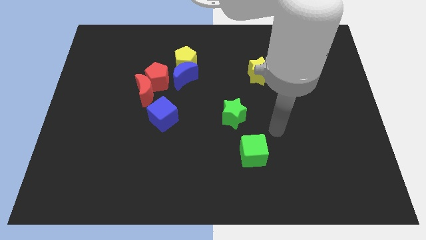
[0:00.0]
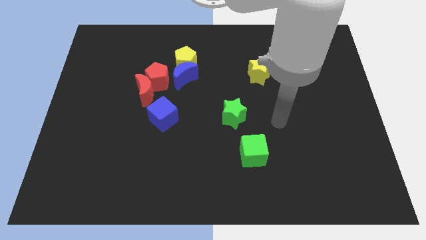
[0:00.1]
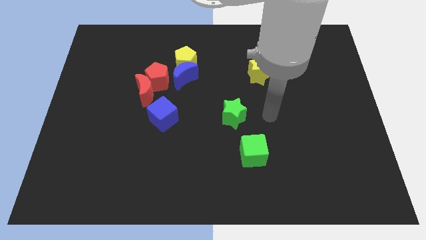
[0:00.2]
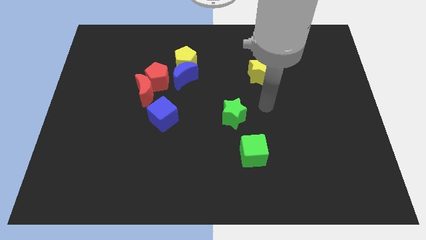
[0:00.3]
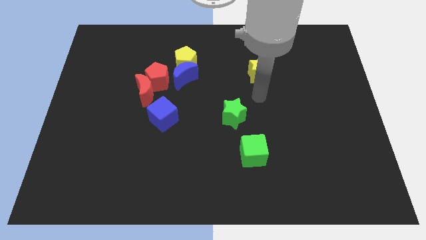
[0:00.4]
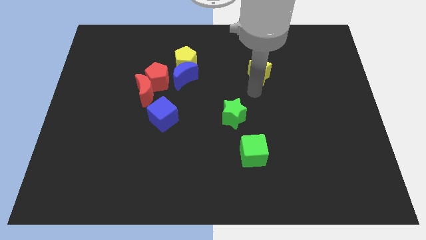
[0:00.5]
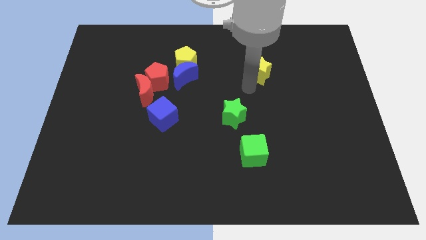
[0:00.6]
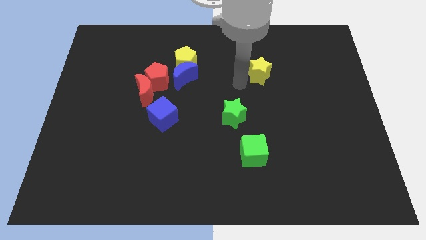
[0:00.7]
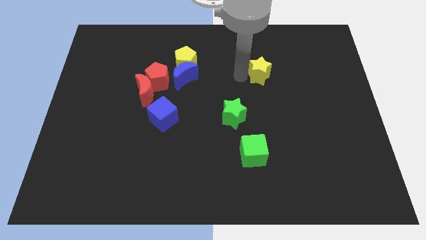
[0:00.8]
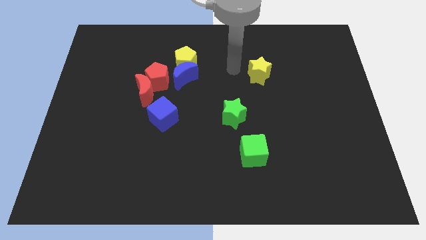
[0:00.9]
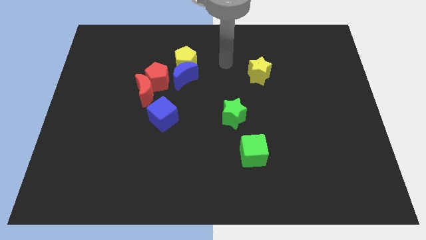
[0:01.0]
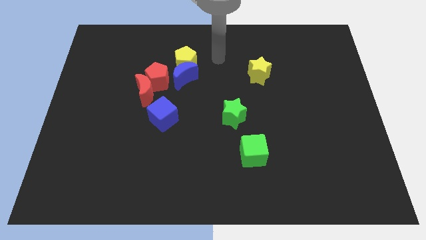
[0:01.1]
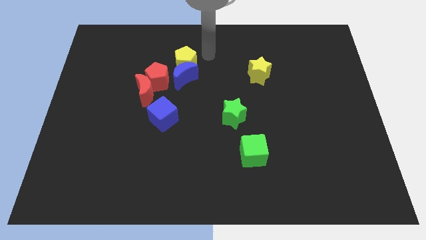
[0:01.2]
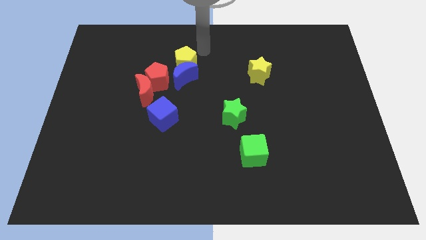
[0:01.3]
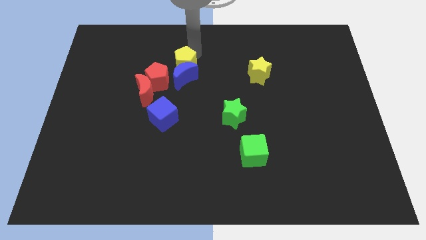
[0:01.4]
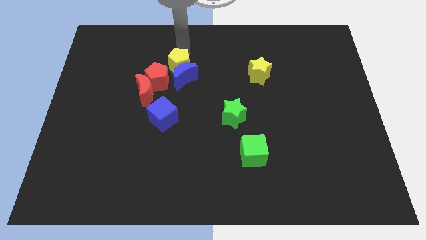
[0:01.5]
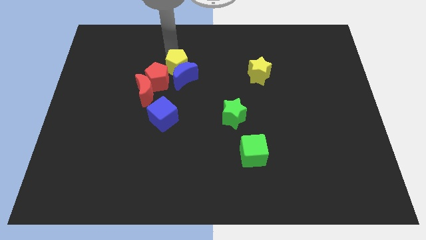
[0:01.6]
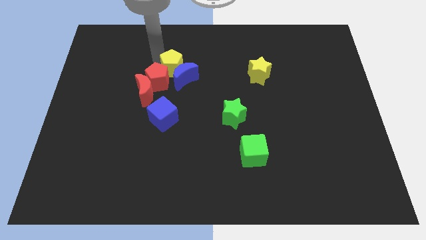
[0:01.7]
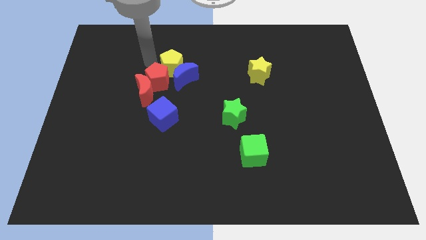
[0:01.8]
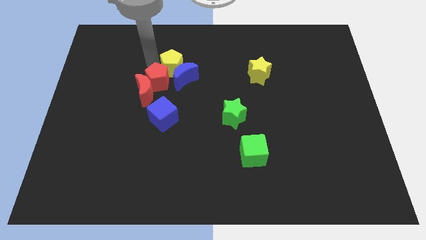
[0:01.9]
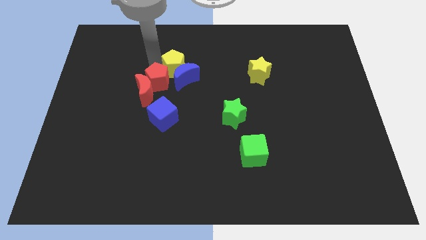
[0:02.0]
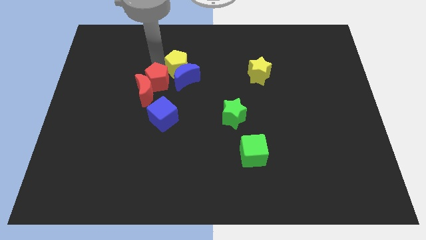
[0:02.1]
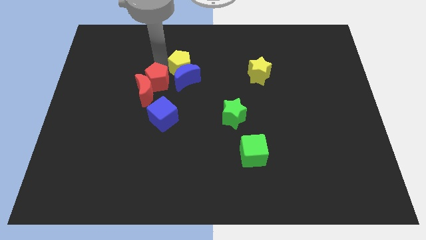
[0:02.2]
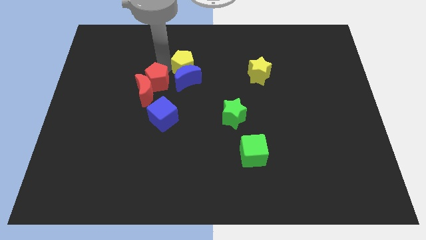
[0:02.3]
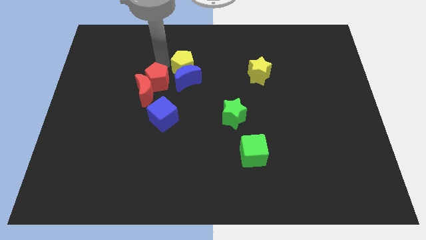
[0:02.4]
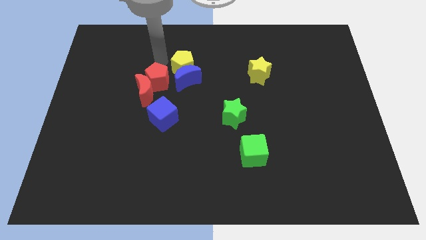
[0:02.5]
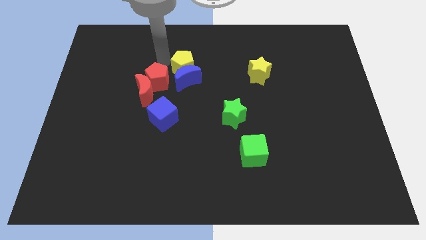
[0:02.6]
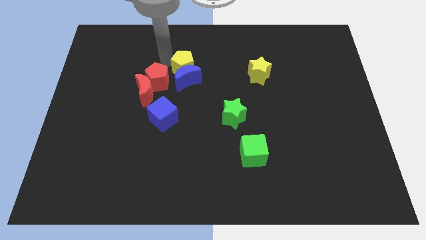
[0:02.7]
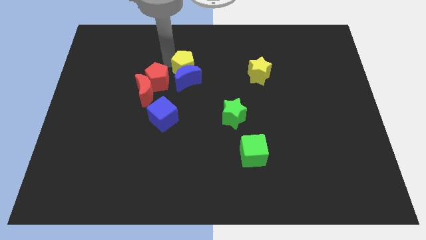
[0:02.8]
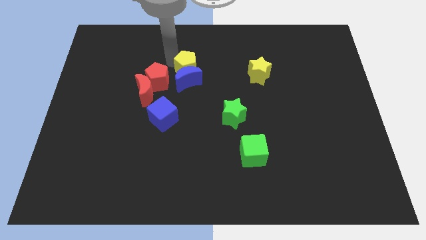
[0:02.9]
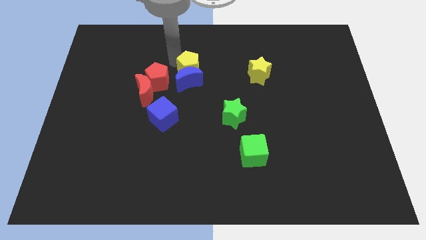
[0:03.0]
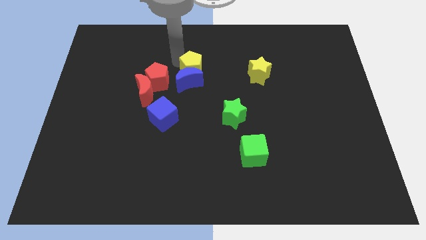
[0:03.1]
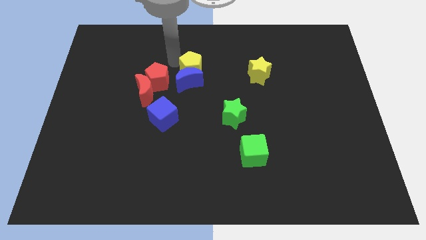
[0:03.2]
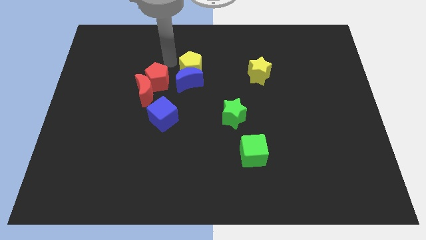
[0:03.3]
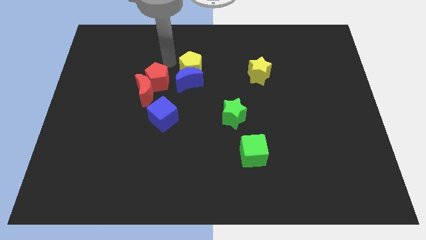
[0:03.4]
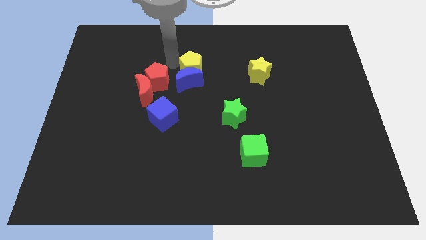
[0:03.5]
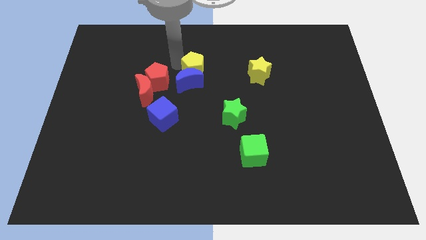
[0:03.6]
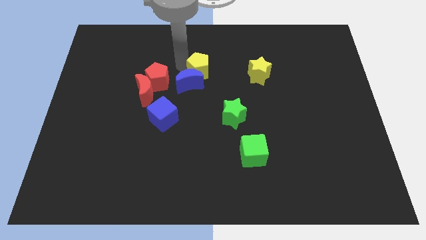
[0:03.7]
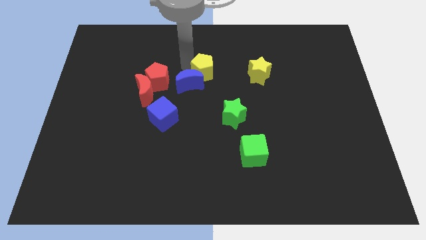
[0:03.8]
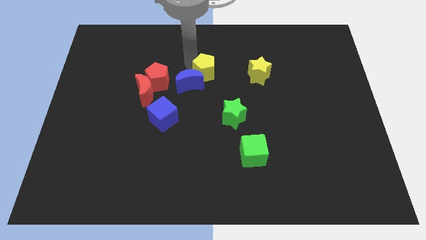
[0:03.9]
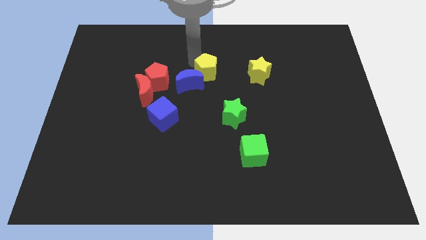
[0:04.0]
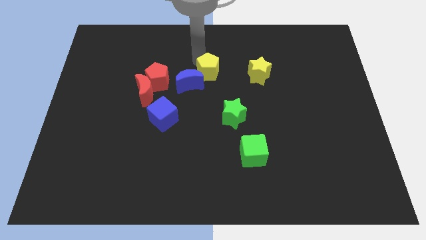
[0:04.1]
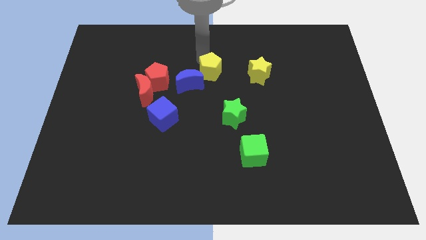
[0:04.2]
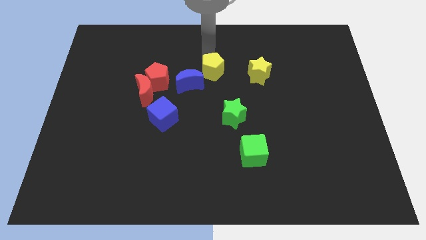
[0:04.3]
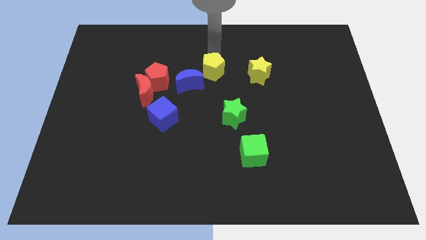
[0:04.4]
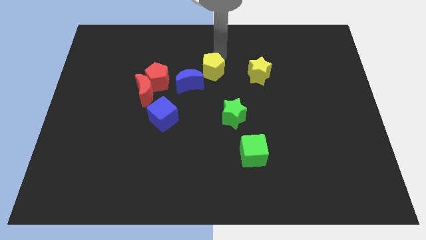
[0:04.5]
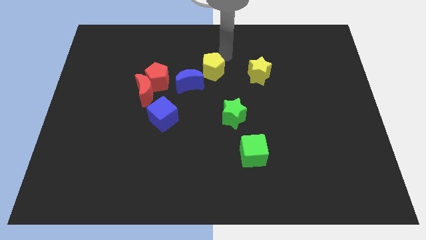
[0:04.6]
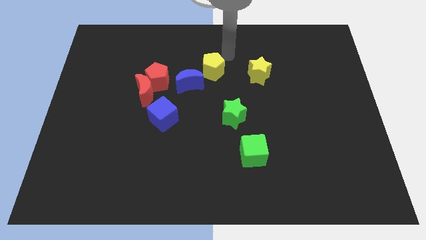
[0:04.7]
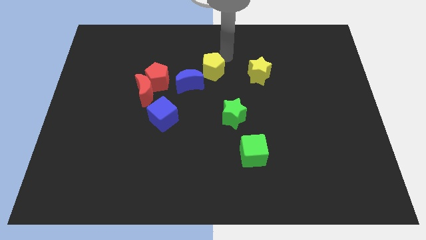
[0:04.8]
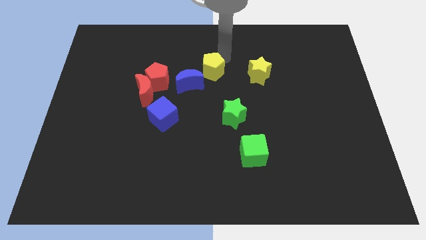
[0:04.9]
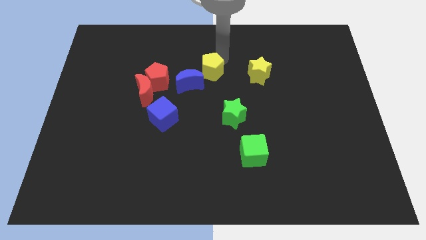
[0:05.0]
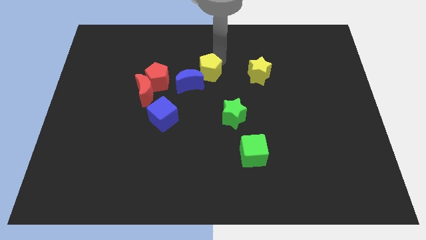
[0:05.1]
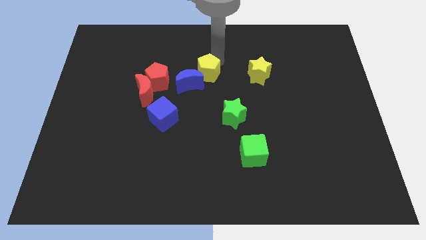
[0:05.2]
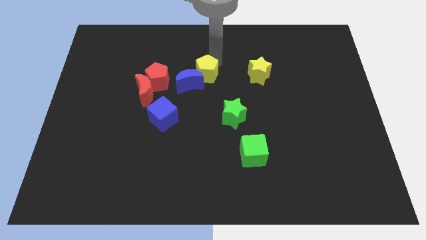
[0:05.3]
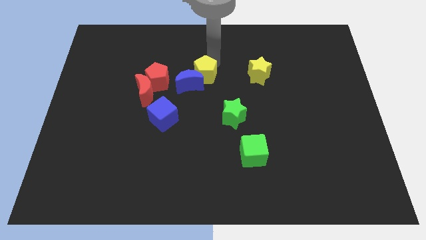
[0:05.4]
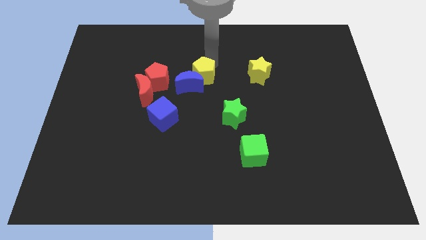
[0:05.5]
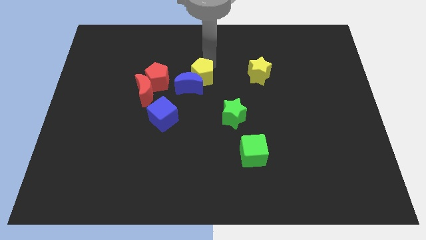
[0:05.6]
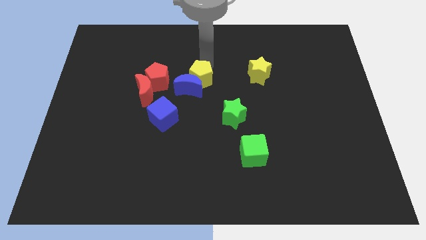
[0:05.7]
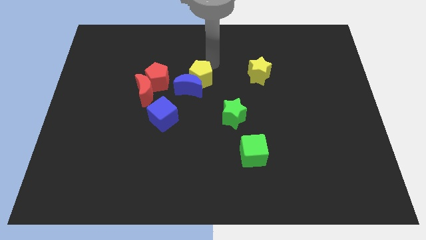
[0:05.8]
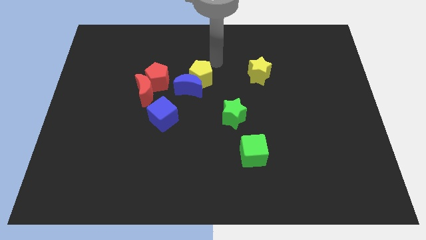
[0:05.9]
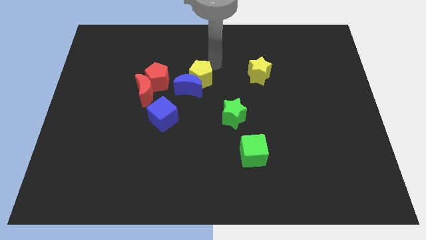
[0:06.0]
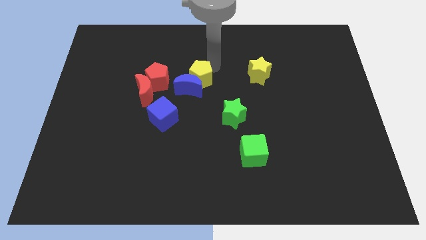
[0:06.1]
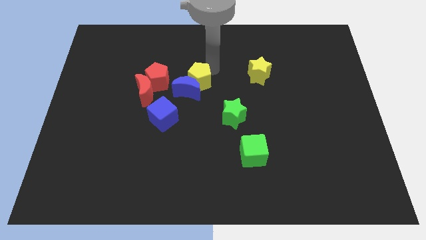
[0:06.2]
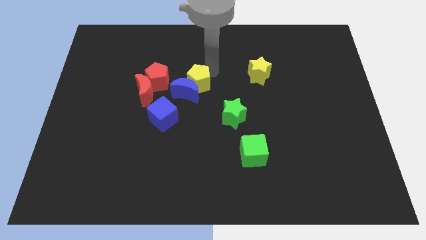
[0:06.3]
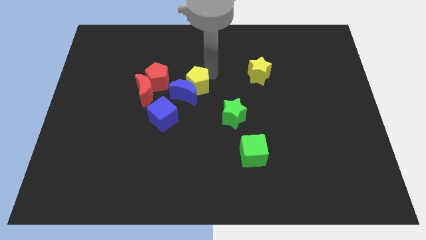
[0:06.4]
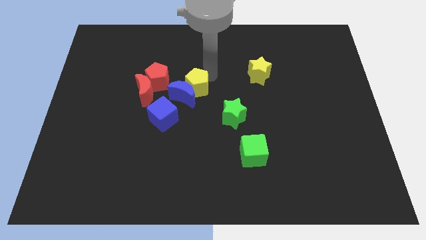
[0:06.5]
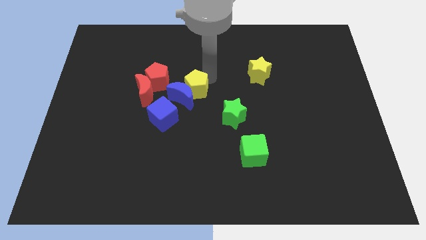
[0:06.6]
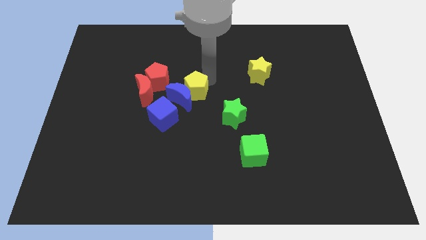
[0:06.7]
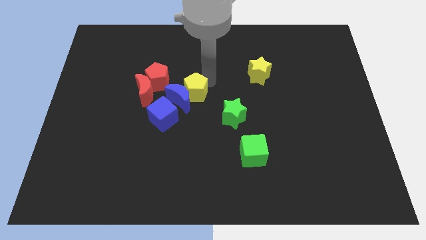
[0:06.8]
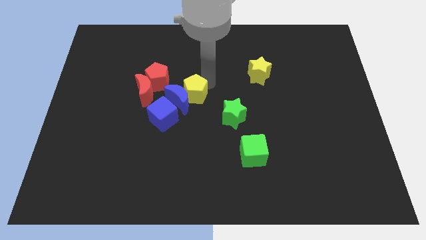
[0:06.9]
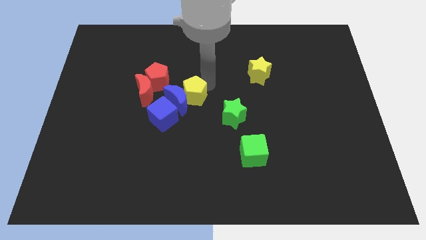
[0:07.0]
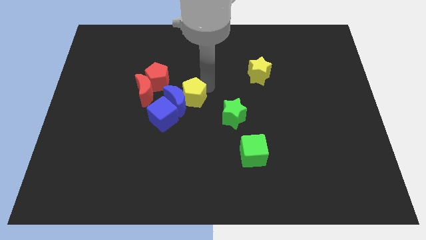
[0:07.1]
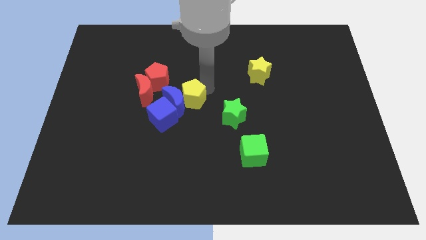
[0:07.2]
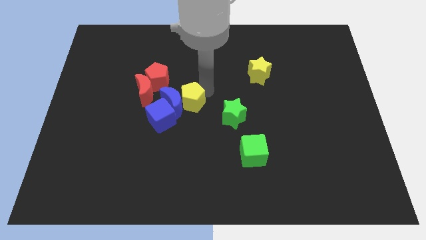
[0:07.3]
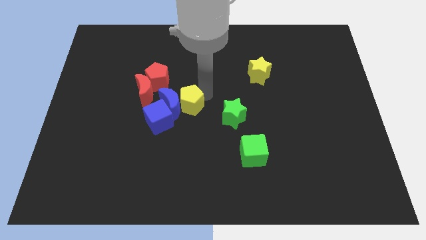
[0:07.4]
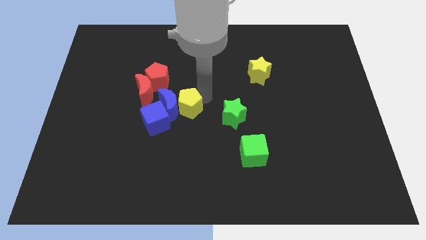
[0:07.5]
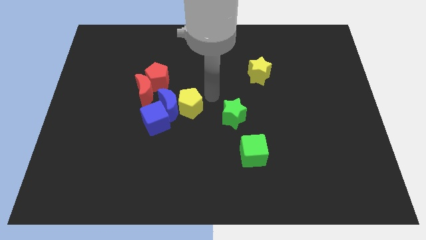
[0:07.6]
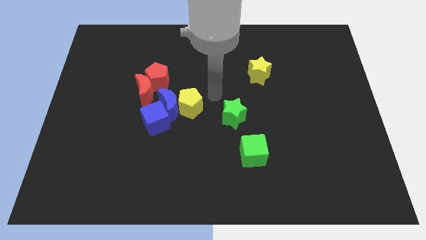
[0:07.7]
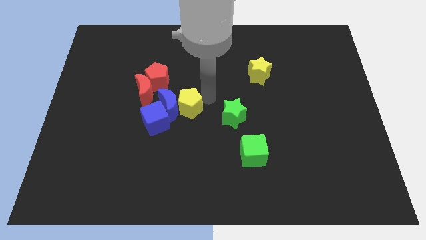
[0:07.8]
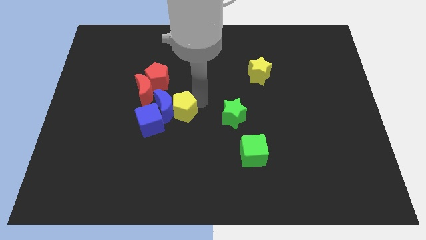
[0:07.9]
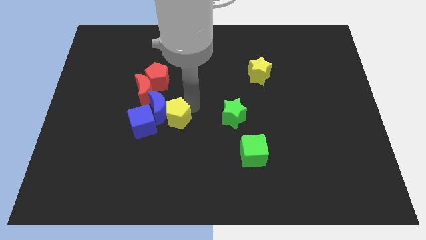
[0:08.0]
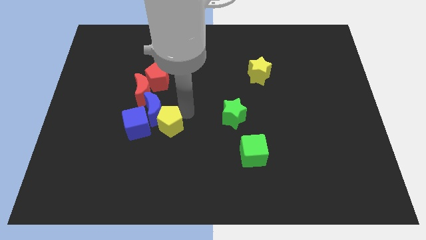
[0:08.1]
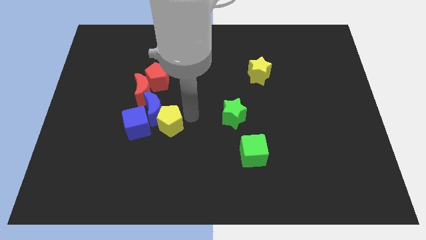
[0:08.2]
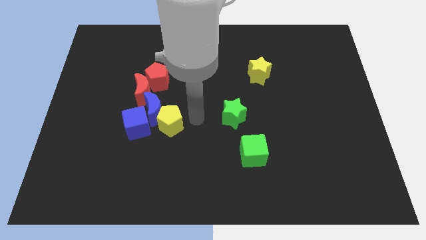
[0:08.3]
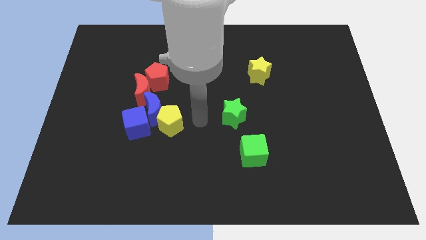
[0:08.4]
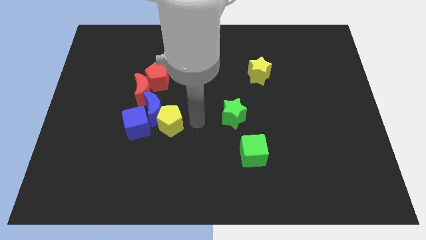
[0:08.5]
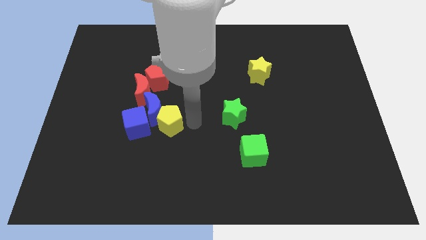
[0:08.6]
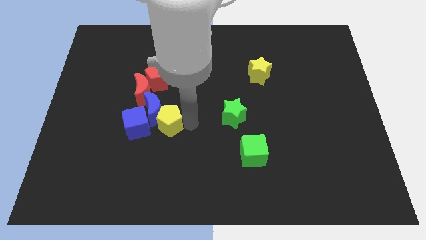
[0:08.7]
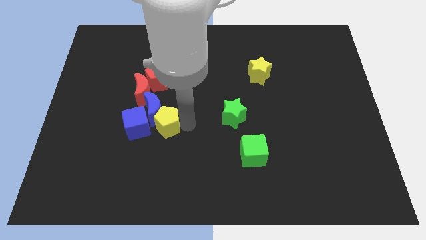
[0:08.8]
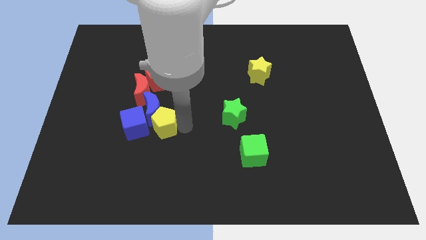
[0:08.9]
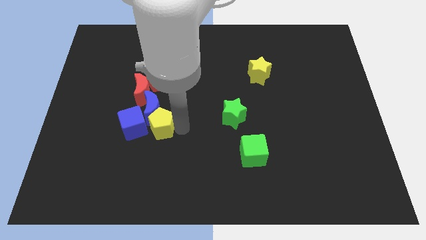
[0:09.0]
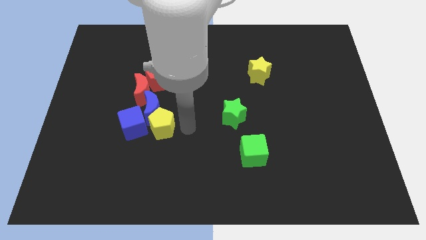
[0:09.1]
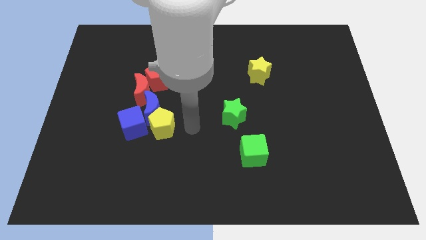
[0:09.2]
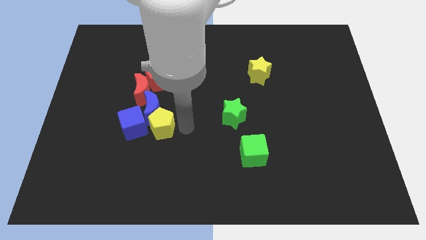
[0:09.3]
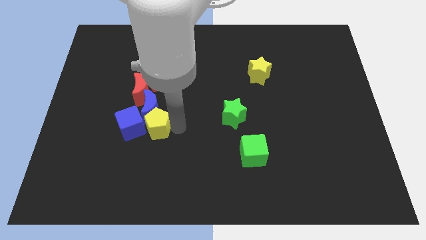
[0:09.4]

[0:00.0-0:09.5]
move the yellow pentagon next to the blue cube
